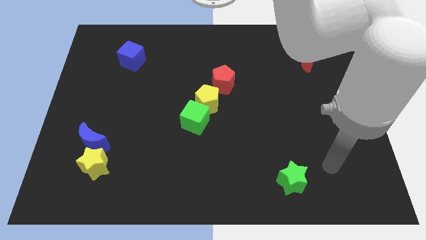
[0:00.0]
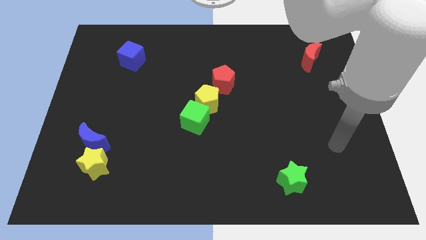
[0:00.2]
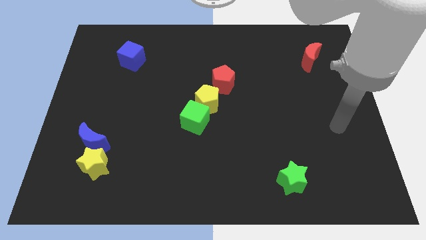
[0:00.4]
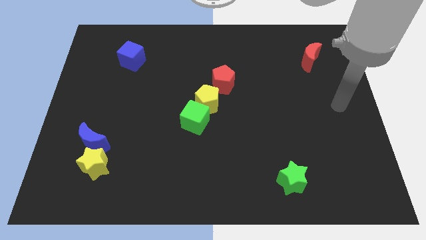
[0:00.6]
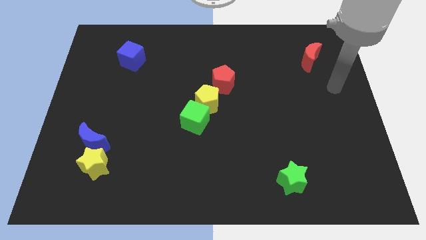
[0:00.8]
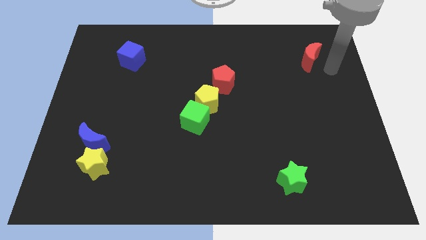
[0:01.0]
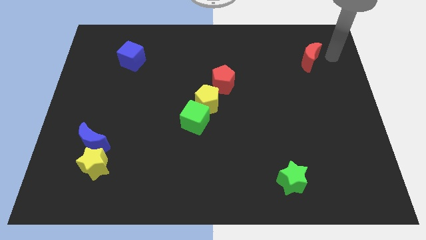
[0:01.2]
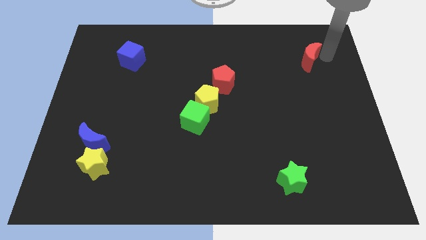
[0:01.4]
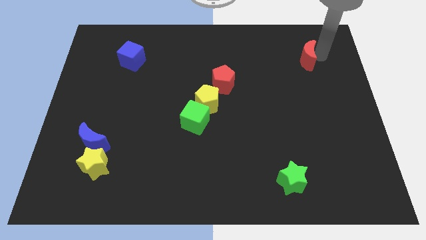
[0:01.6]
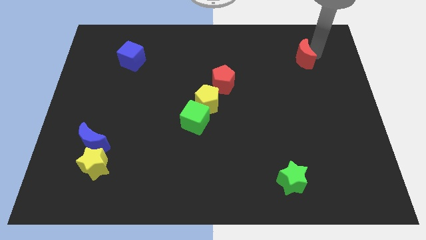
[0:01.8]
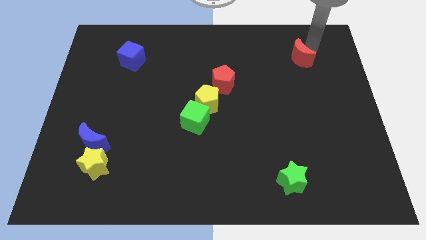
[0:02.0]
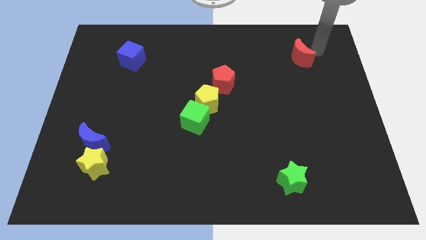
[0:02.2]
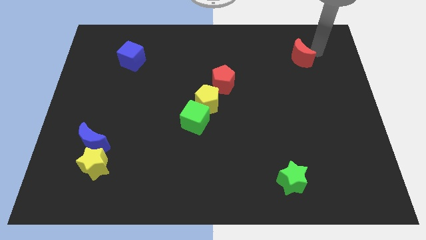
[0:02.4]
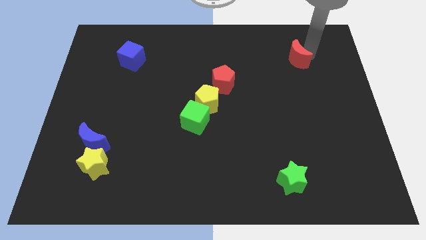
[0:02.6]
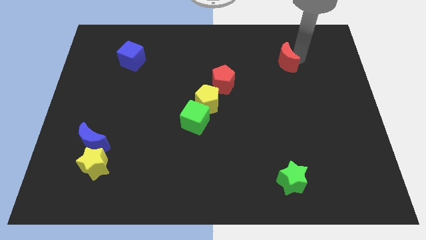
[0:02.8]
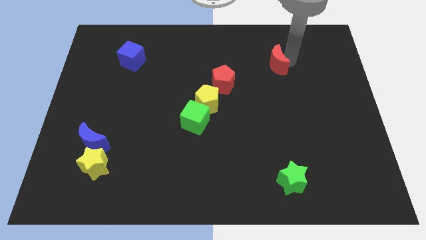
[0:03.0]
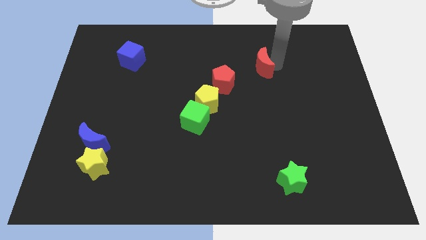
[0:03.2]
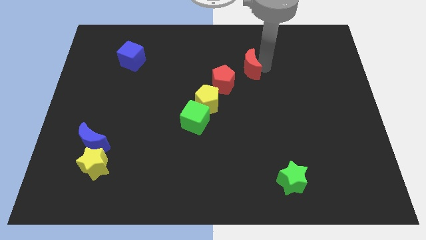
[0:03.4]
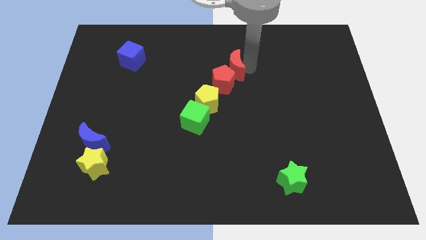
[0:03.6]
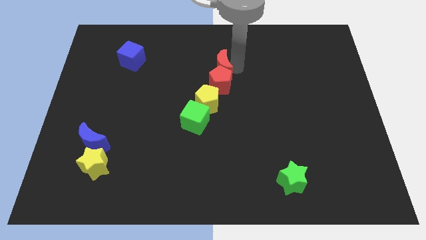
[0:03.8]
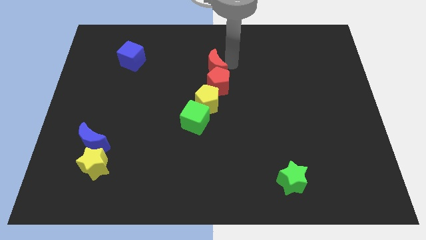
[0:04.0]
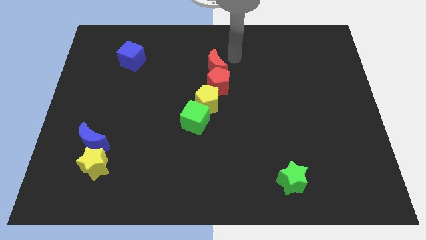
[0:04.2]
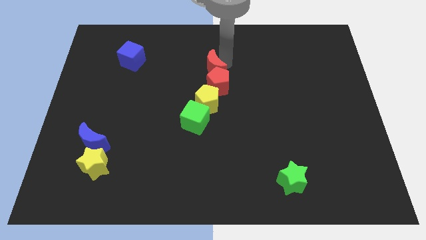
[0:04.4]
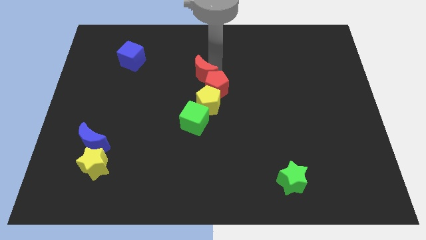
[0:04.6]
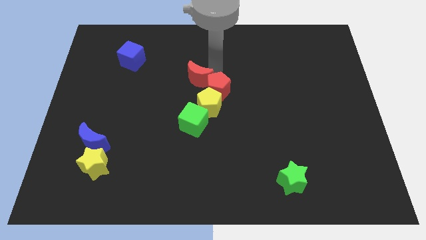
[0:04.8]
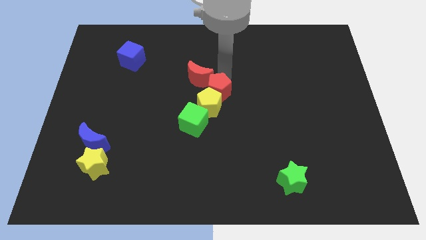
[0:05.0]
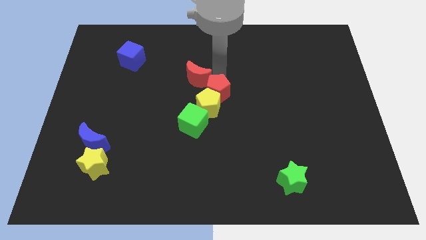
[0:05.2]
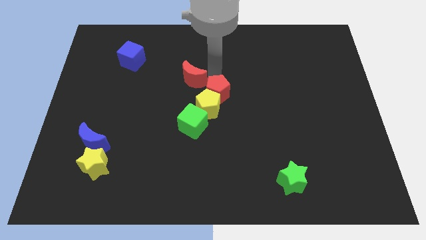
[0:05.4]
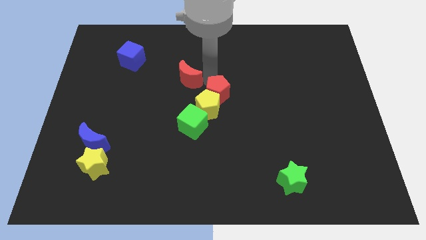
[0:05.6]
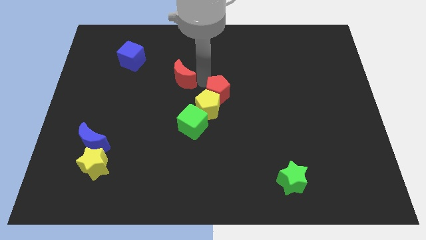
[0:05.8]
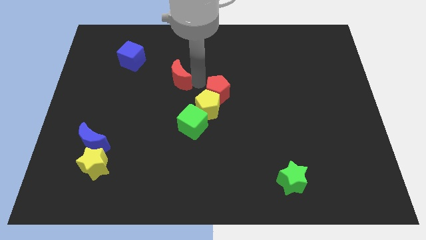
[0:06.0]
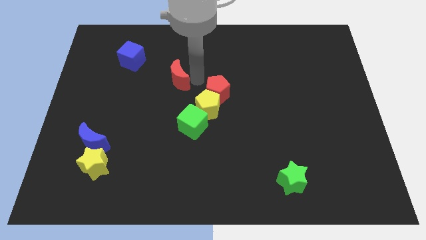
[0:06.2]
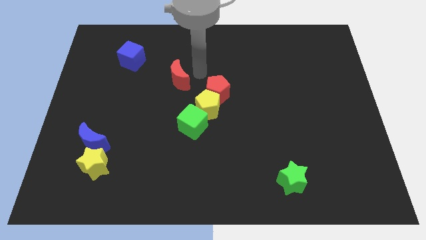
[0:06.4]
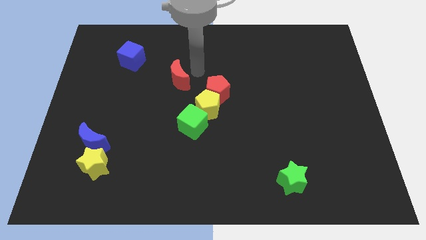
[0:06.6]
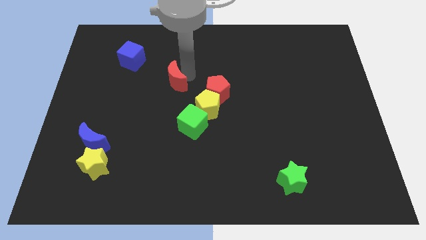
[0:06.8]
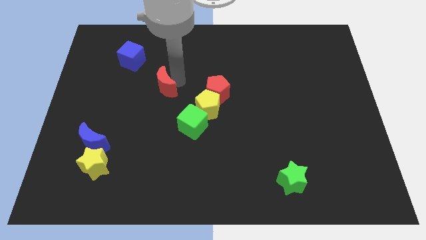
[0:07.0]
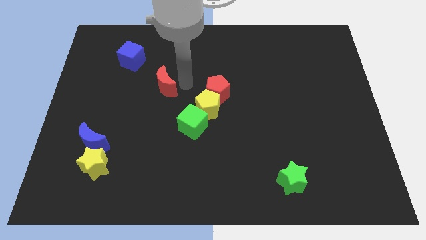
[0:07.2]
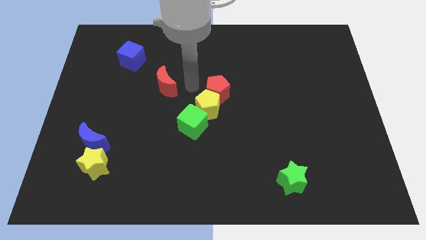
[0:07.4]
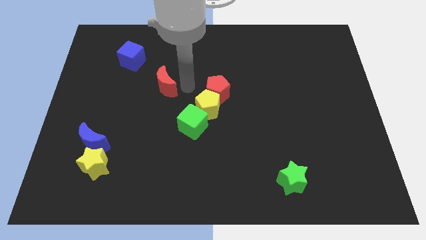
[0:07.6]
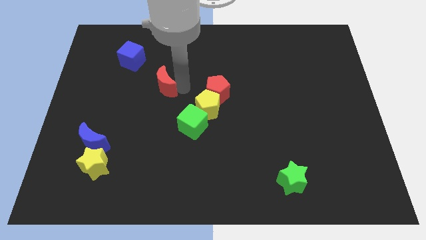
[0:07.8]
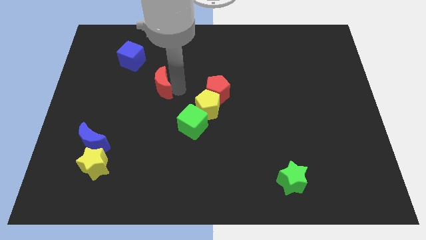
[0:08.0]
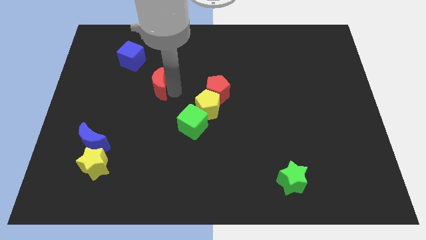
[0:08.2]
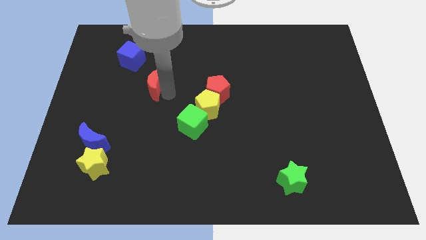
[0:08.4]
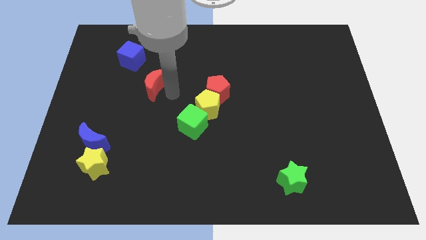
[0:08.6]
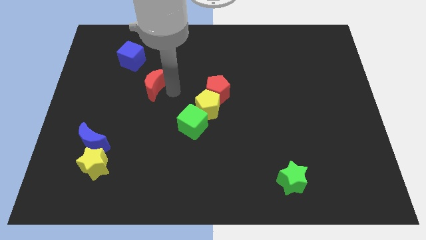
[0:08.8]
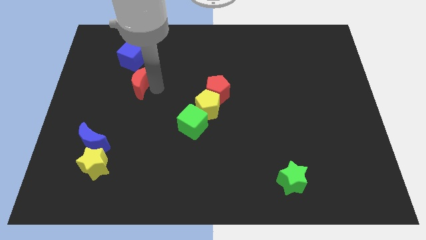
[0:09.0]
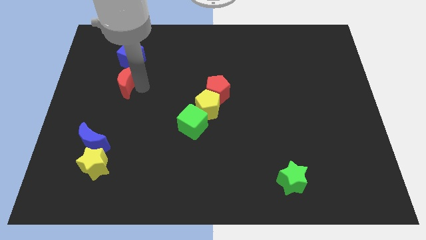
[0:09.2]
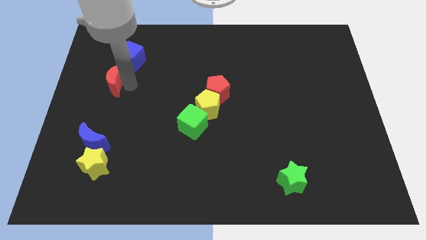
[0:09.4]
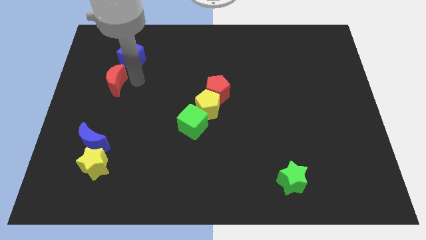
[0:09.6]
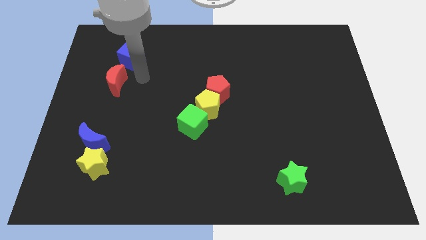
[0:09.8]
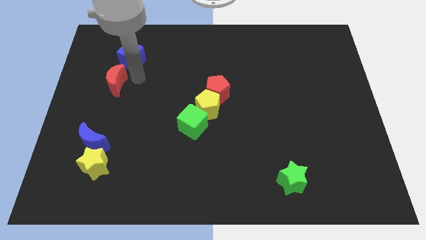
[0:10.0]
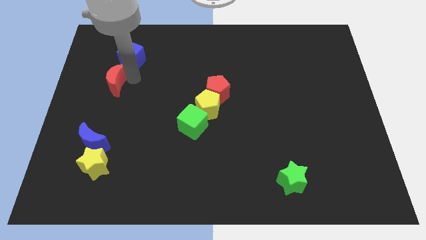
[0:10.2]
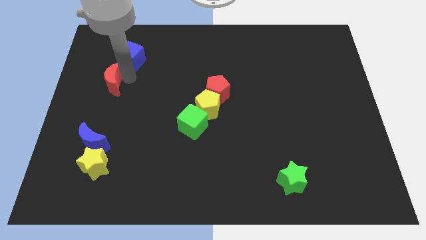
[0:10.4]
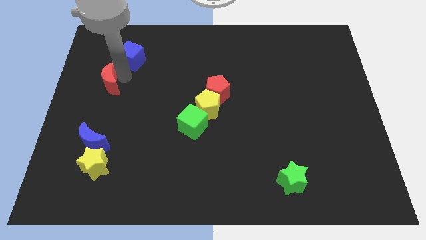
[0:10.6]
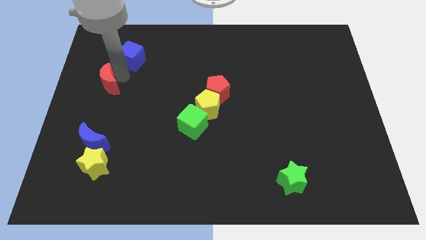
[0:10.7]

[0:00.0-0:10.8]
slide the red moon to the center left
